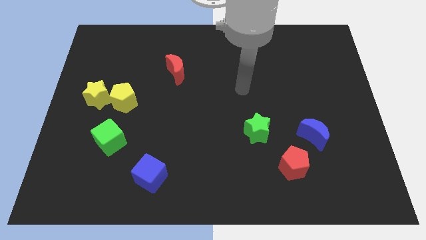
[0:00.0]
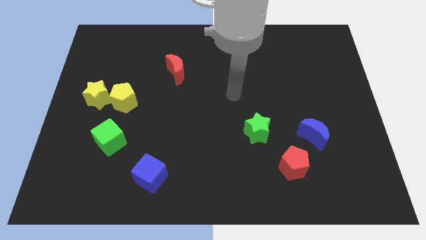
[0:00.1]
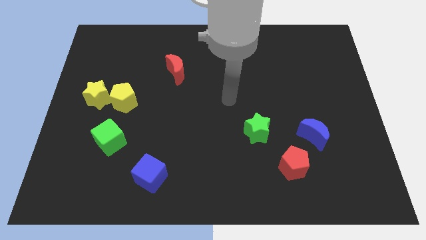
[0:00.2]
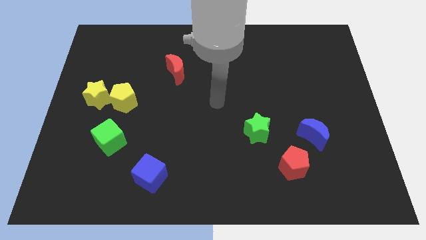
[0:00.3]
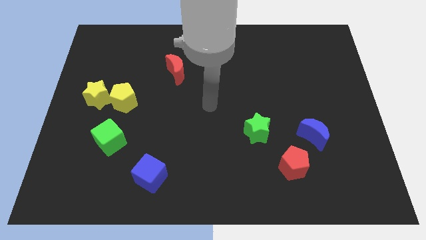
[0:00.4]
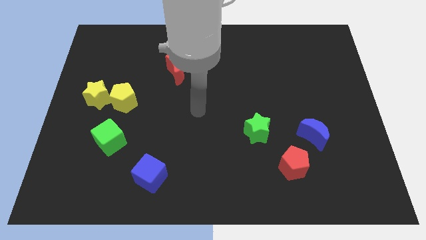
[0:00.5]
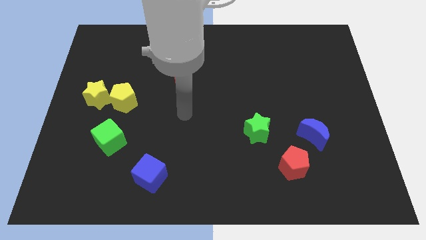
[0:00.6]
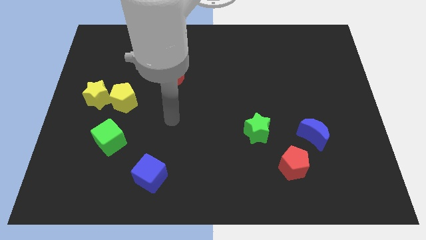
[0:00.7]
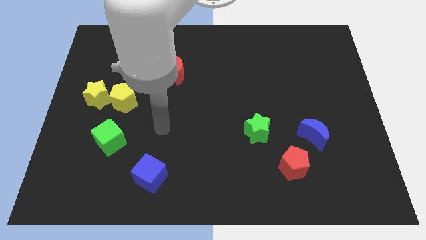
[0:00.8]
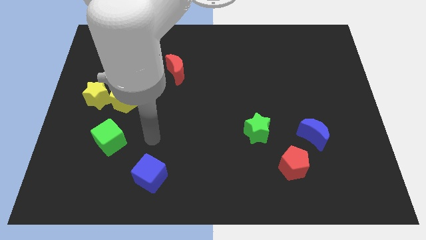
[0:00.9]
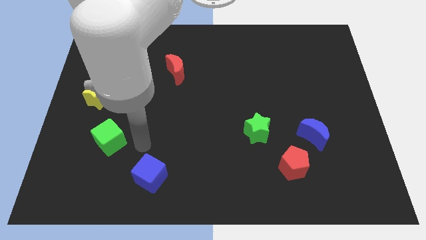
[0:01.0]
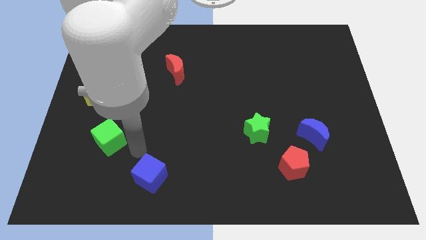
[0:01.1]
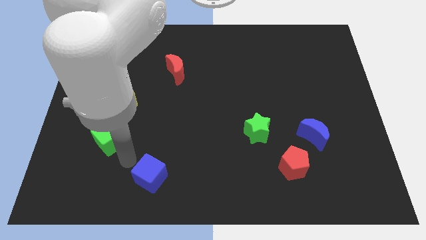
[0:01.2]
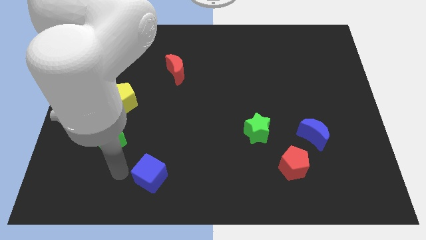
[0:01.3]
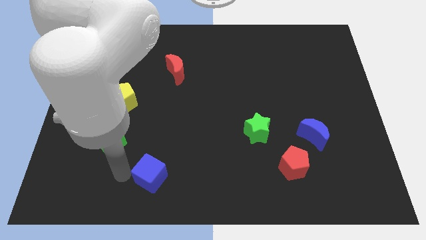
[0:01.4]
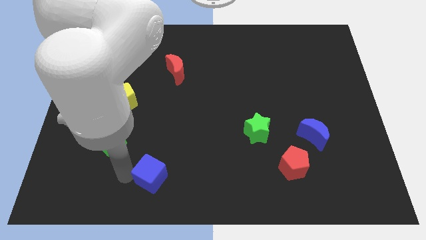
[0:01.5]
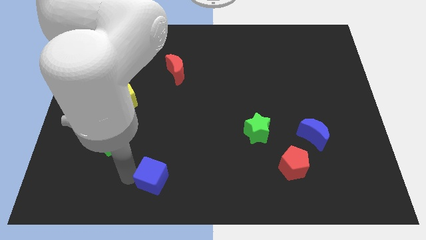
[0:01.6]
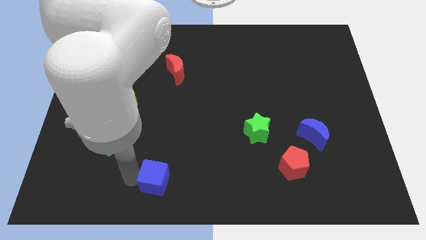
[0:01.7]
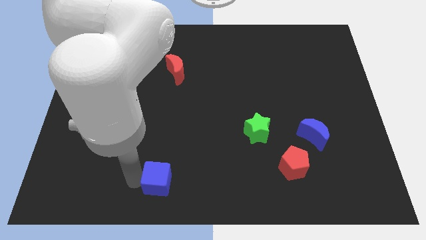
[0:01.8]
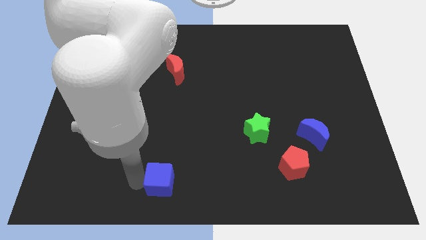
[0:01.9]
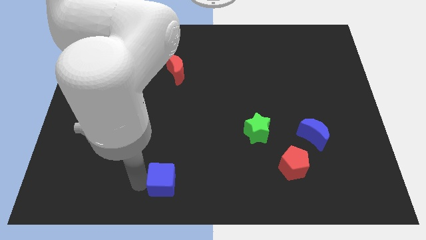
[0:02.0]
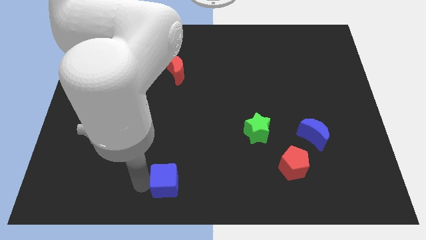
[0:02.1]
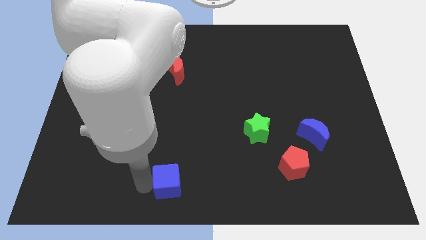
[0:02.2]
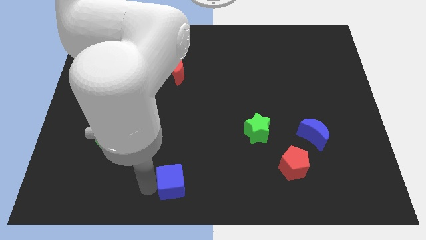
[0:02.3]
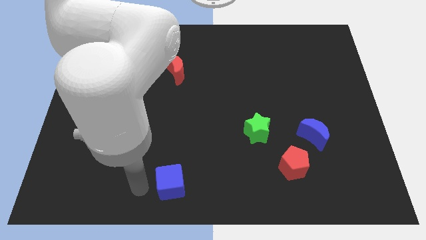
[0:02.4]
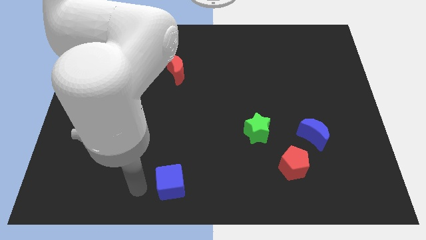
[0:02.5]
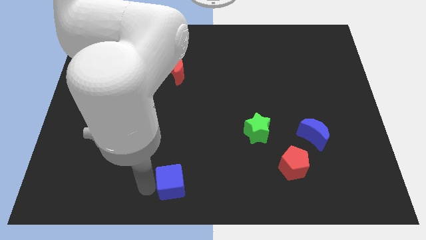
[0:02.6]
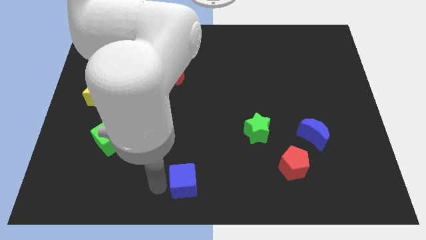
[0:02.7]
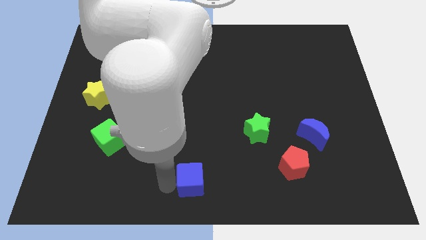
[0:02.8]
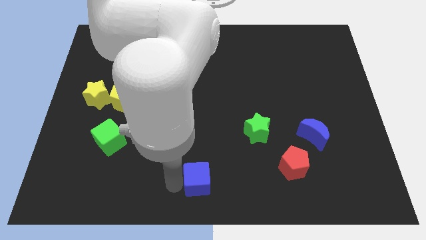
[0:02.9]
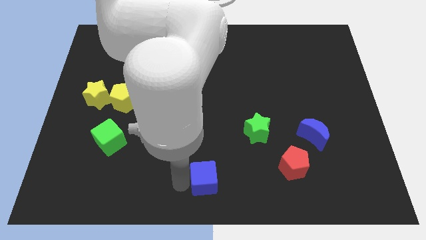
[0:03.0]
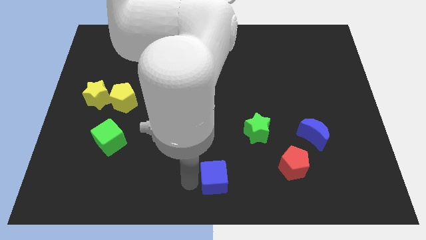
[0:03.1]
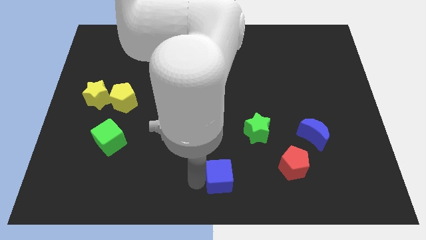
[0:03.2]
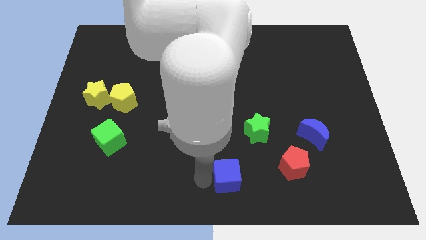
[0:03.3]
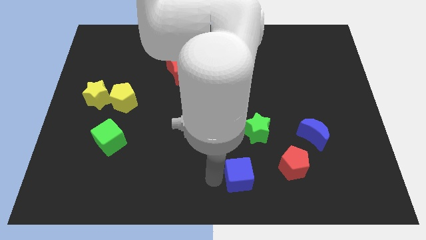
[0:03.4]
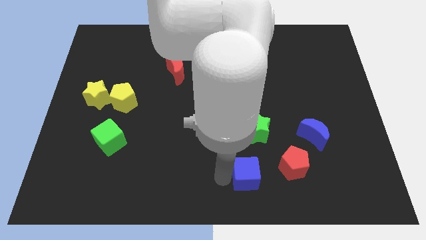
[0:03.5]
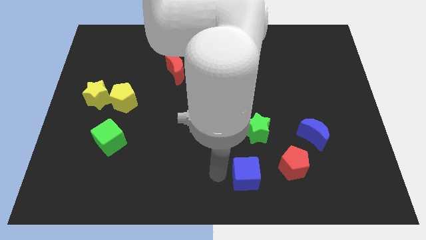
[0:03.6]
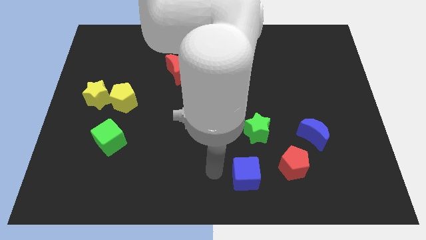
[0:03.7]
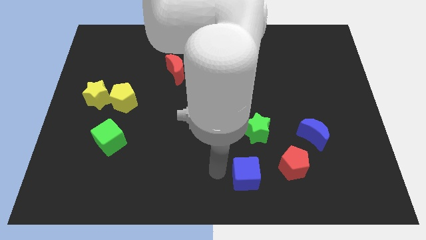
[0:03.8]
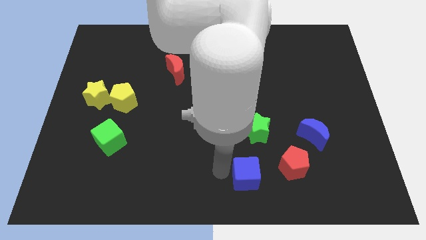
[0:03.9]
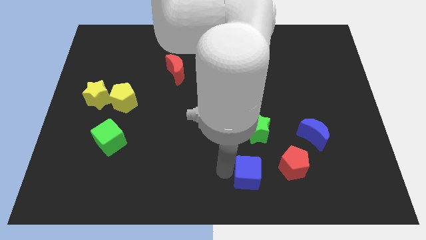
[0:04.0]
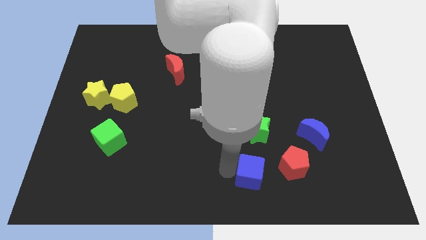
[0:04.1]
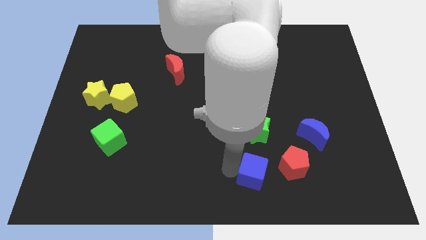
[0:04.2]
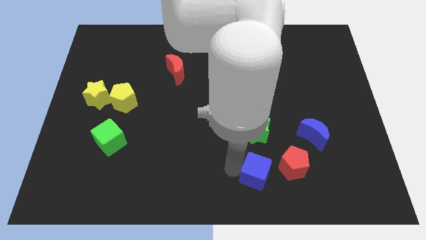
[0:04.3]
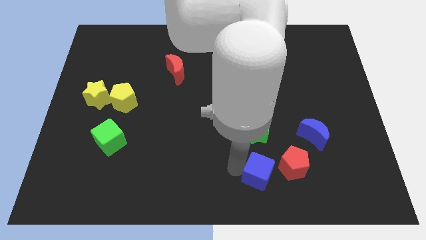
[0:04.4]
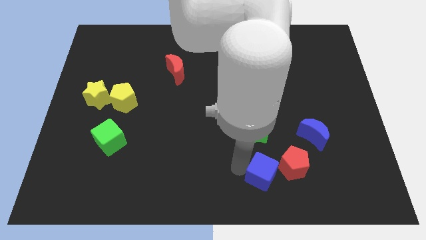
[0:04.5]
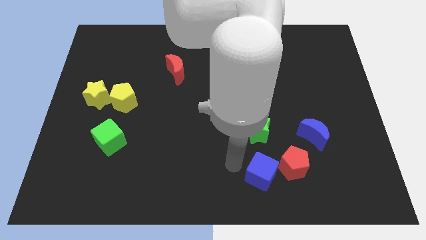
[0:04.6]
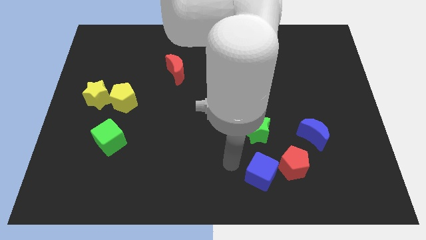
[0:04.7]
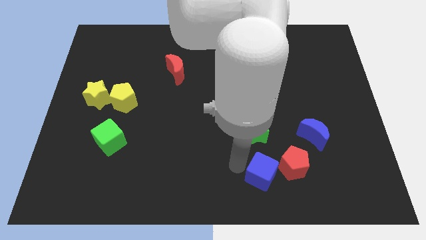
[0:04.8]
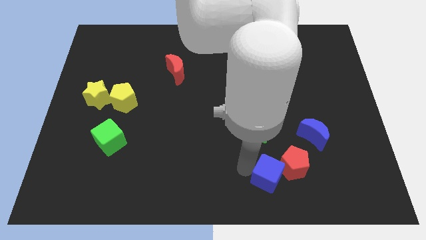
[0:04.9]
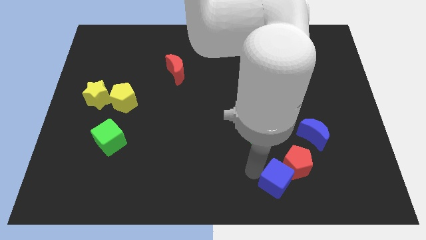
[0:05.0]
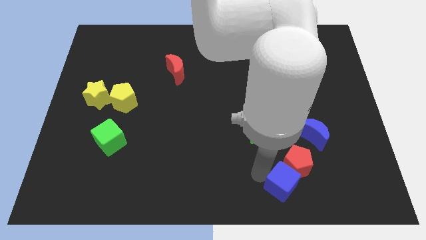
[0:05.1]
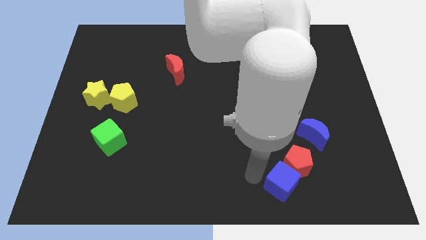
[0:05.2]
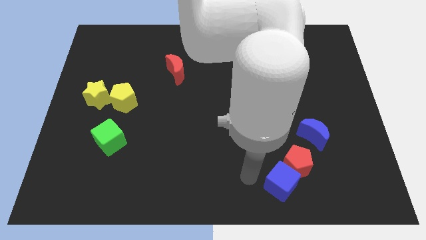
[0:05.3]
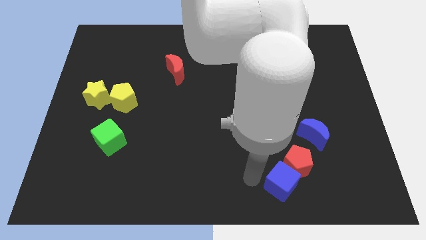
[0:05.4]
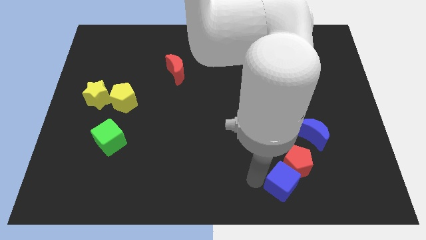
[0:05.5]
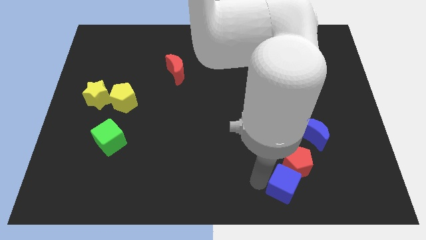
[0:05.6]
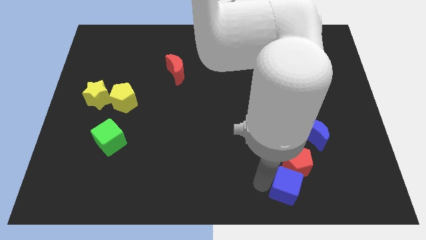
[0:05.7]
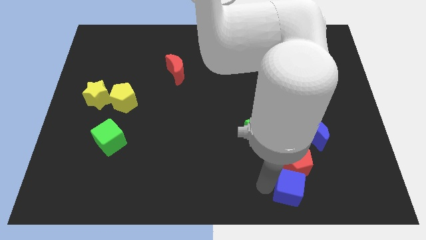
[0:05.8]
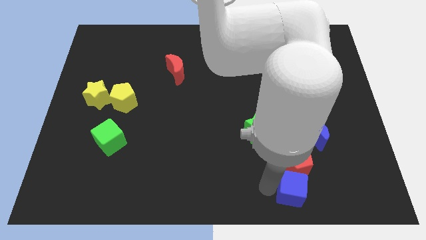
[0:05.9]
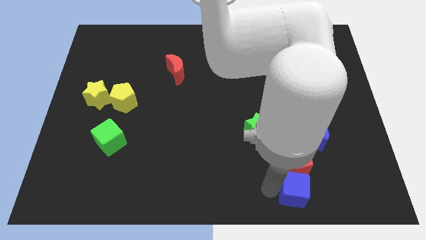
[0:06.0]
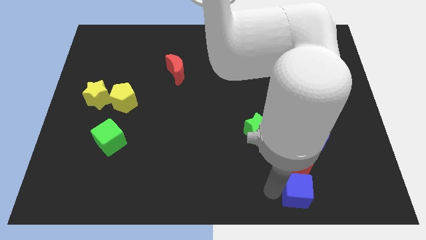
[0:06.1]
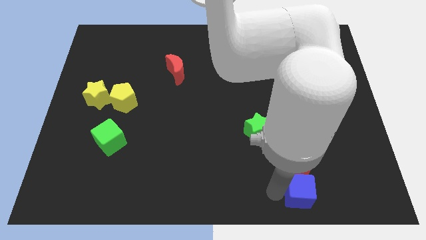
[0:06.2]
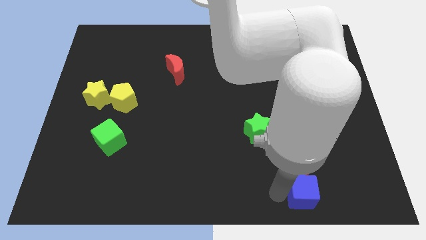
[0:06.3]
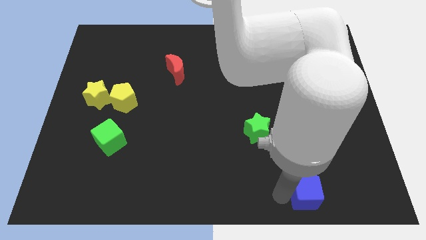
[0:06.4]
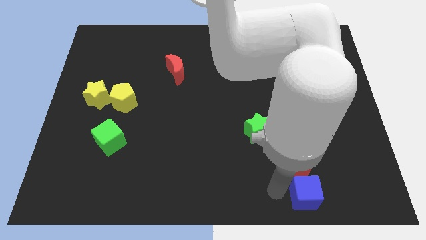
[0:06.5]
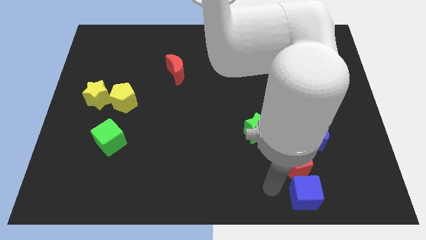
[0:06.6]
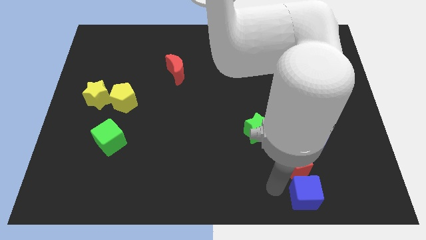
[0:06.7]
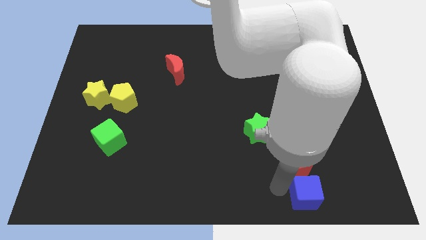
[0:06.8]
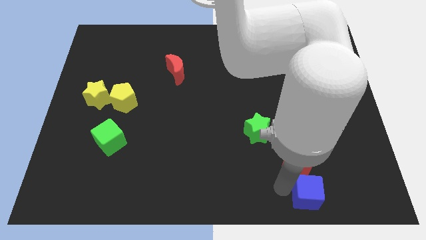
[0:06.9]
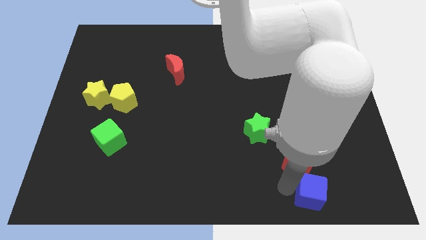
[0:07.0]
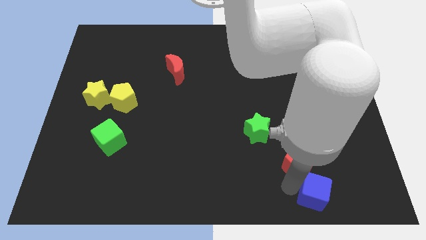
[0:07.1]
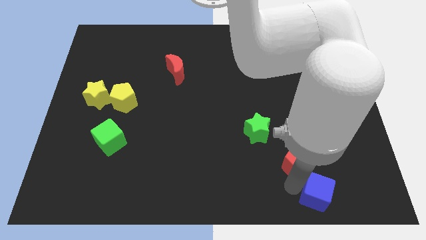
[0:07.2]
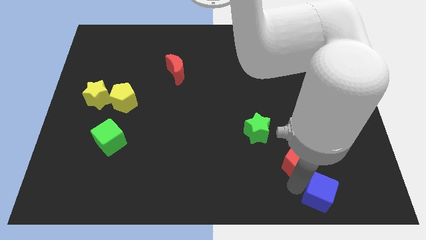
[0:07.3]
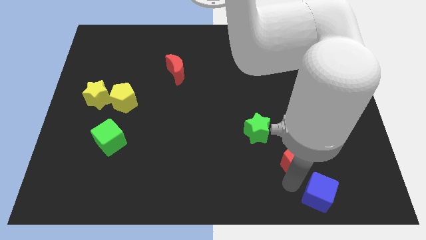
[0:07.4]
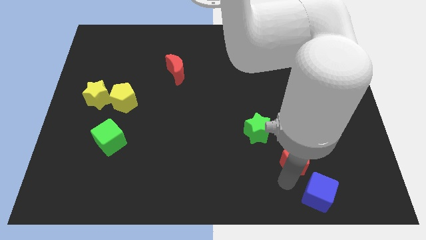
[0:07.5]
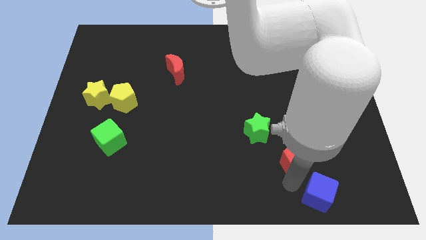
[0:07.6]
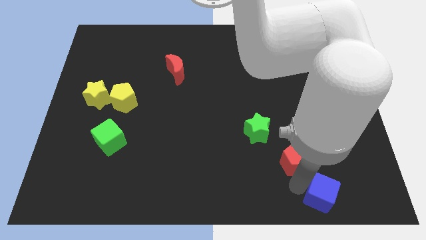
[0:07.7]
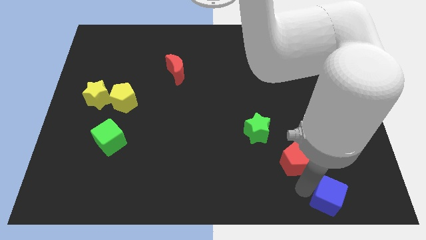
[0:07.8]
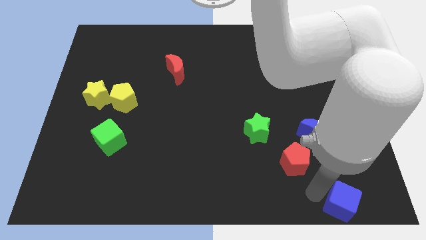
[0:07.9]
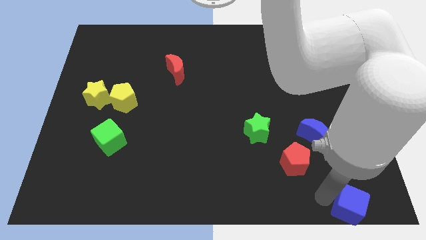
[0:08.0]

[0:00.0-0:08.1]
move the blue cube to the lower right corner
